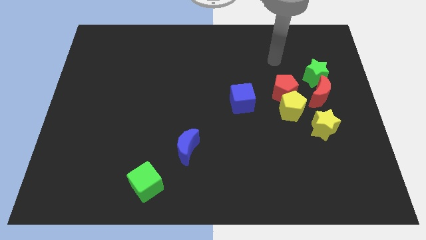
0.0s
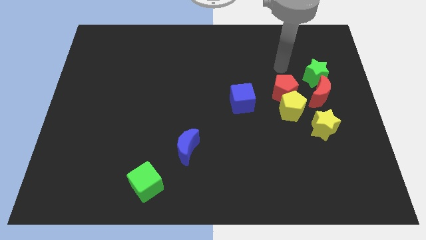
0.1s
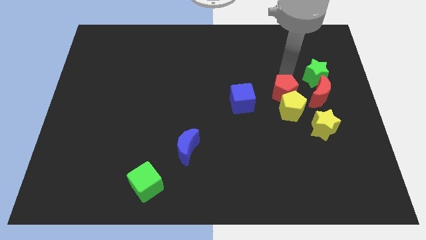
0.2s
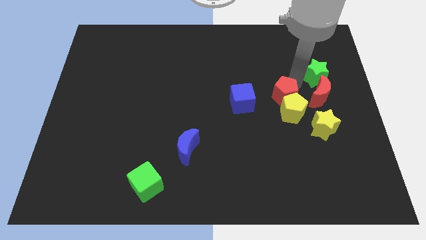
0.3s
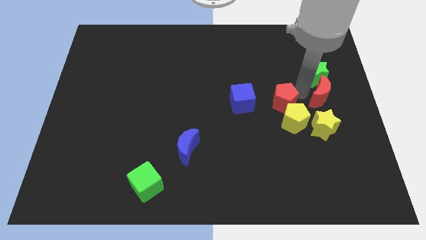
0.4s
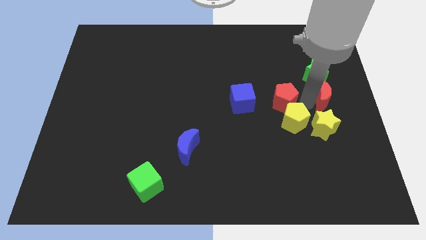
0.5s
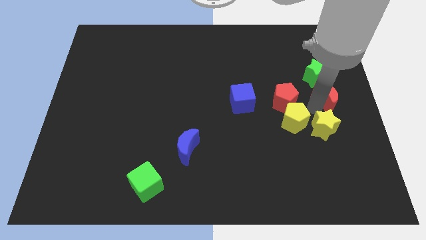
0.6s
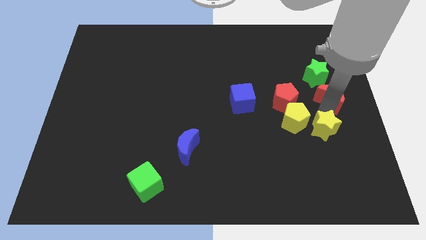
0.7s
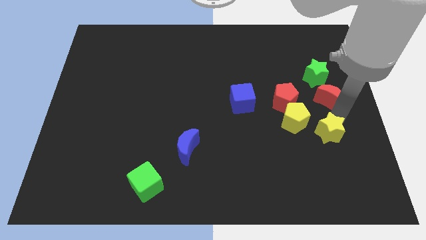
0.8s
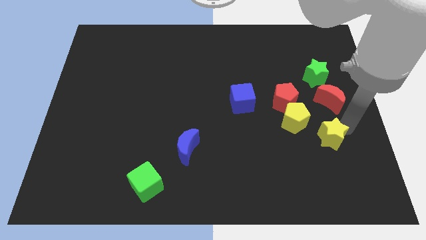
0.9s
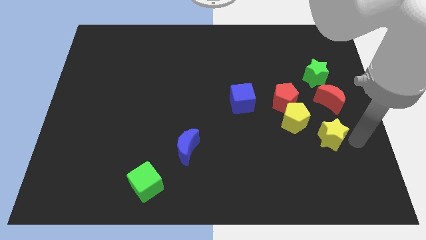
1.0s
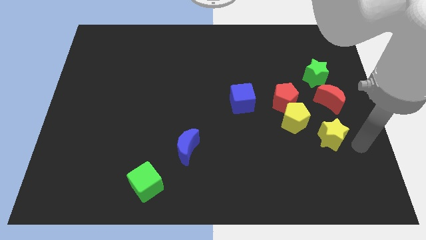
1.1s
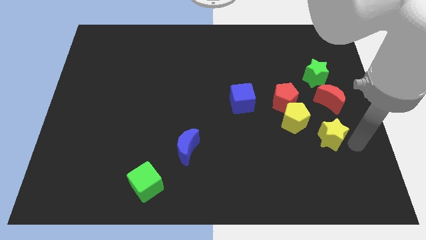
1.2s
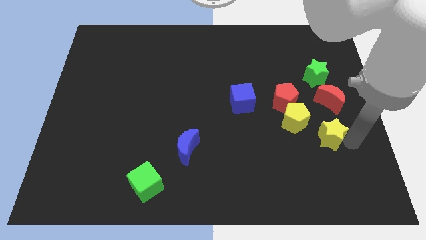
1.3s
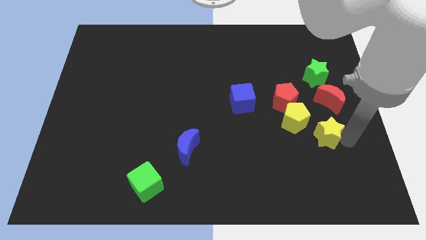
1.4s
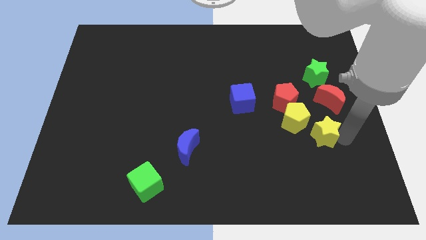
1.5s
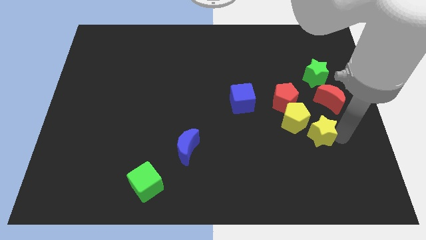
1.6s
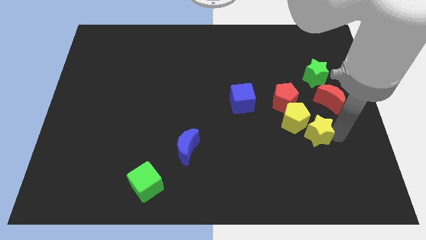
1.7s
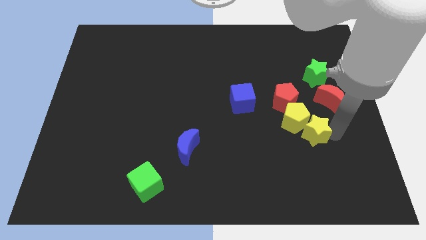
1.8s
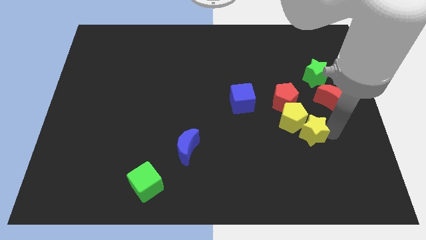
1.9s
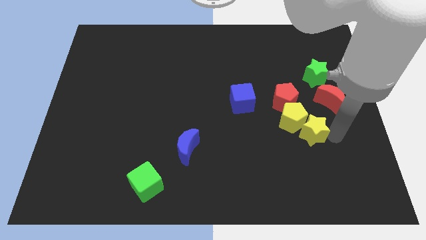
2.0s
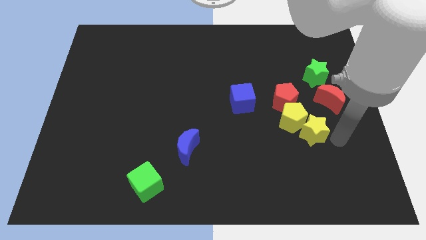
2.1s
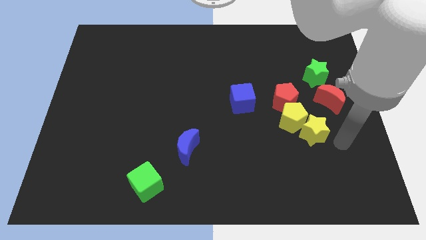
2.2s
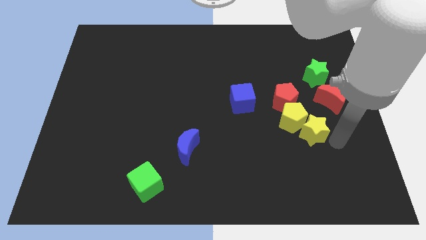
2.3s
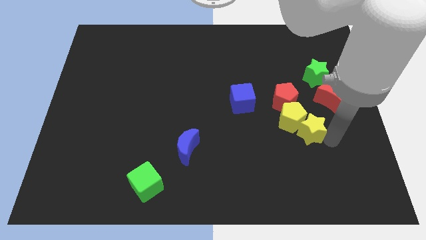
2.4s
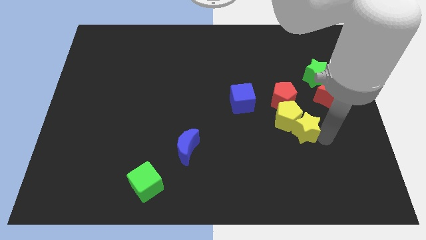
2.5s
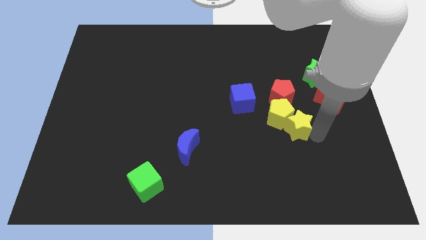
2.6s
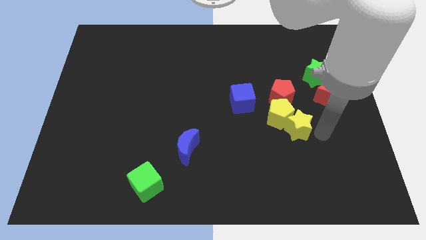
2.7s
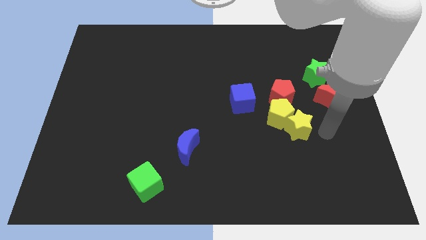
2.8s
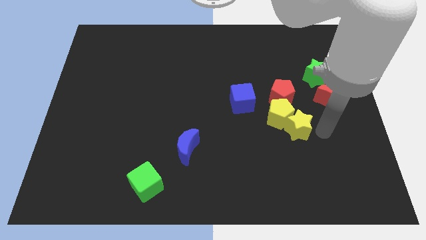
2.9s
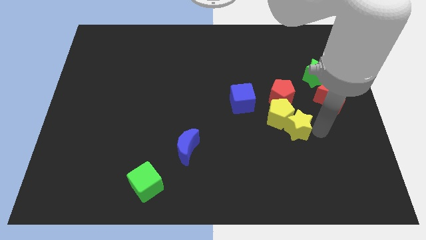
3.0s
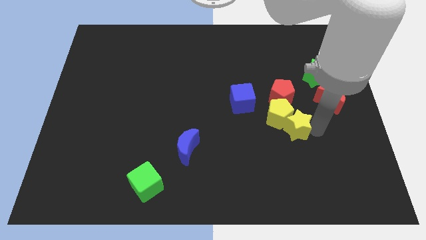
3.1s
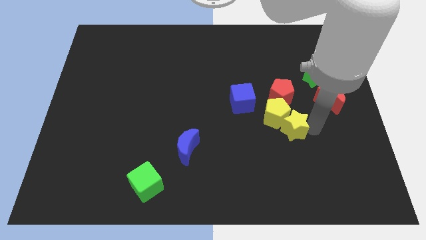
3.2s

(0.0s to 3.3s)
push the yellow star left a bit

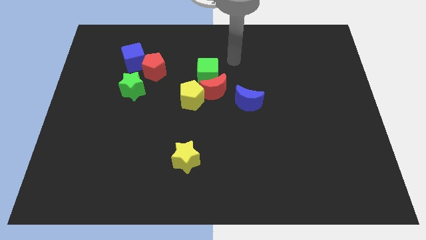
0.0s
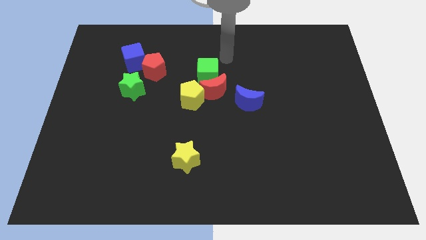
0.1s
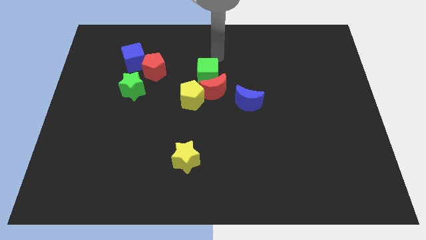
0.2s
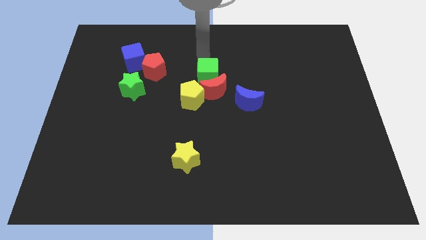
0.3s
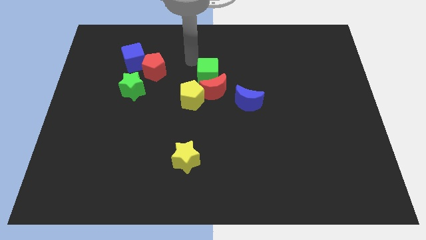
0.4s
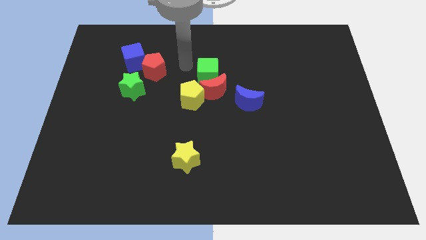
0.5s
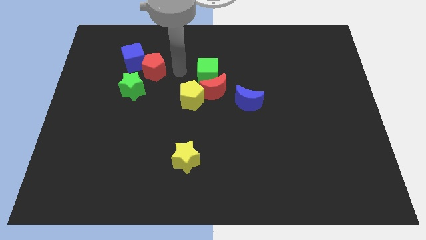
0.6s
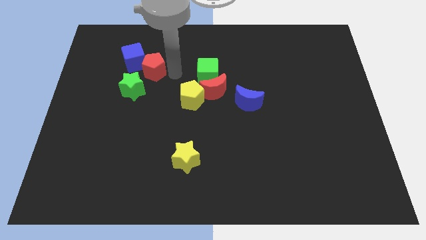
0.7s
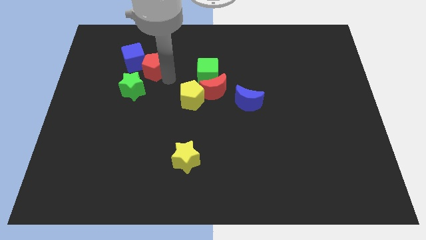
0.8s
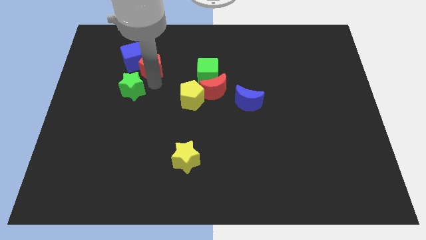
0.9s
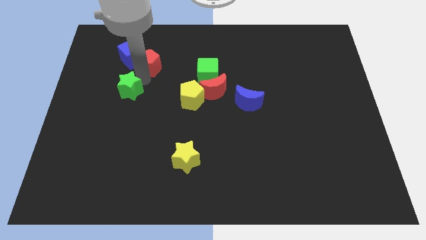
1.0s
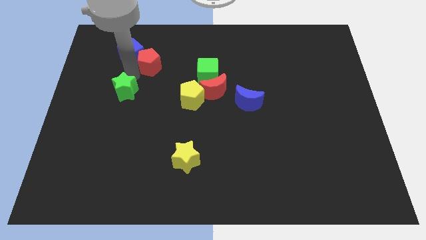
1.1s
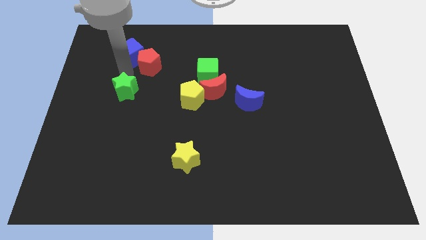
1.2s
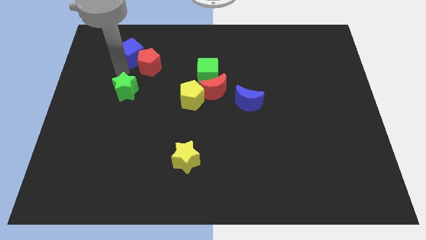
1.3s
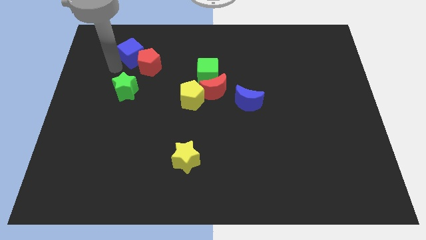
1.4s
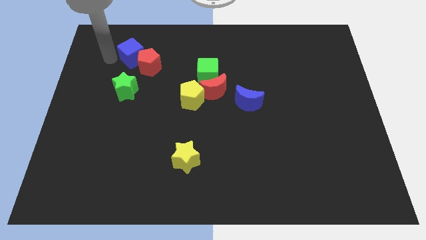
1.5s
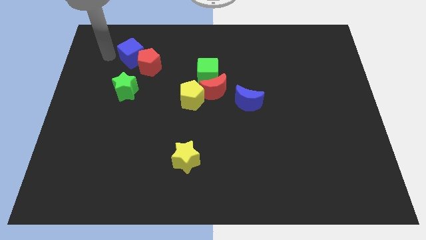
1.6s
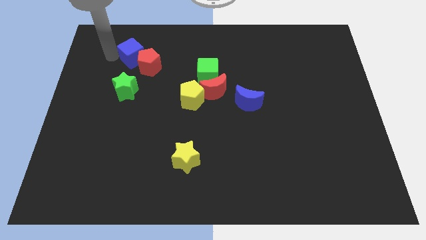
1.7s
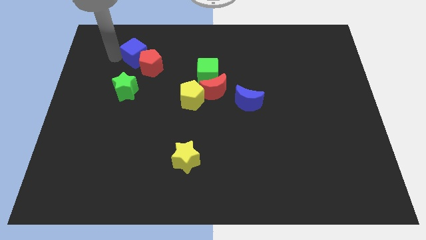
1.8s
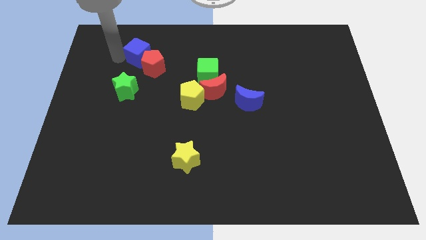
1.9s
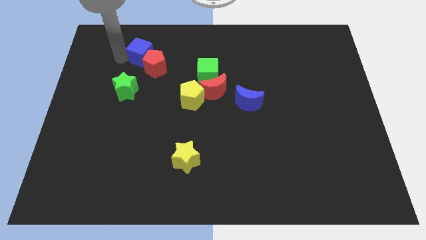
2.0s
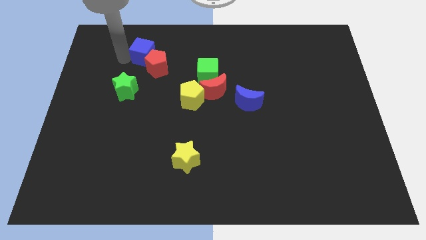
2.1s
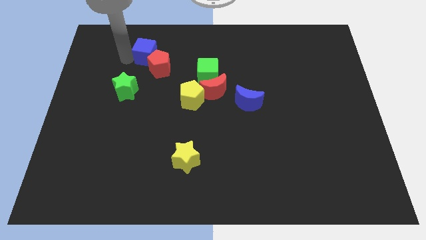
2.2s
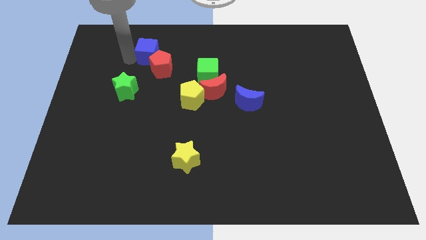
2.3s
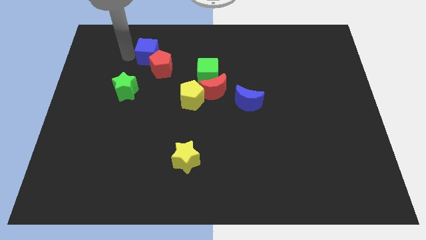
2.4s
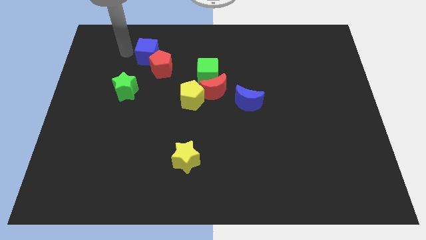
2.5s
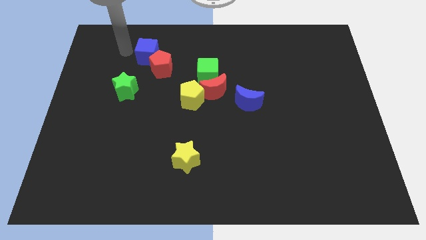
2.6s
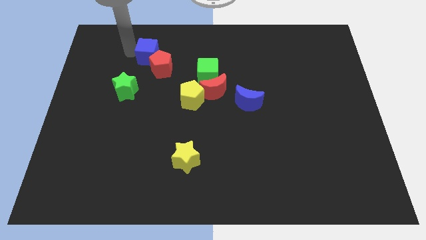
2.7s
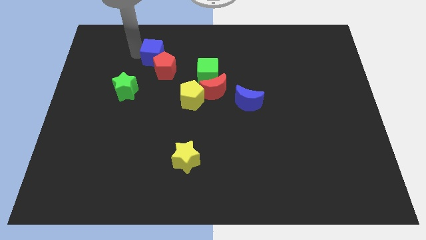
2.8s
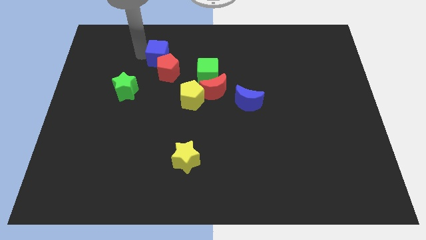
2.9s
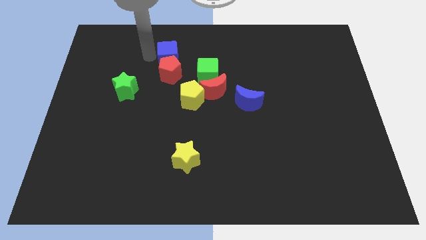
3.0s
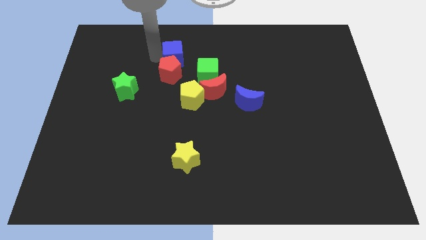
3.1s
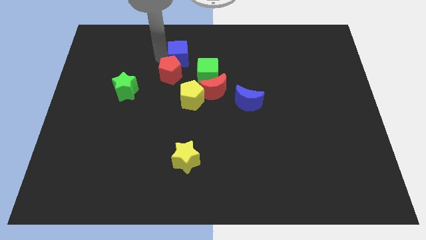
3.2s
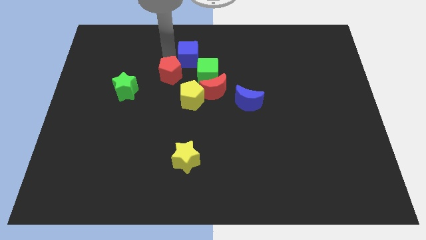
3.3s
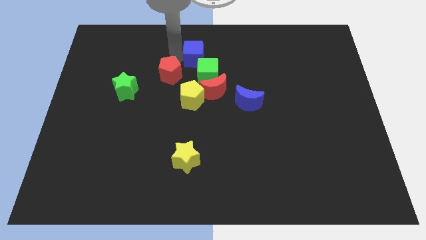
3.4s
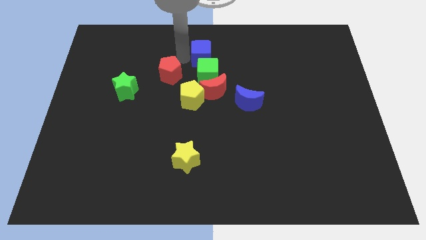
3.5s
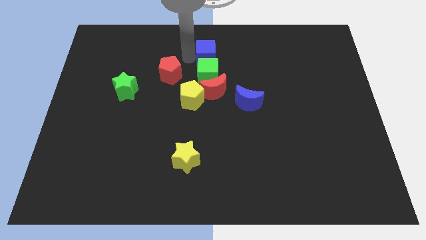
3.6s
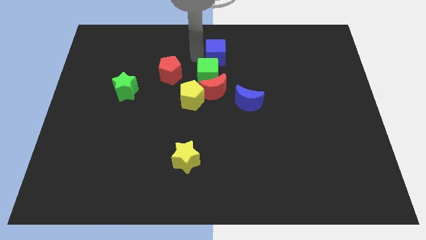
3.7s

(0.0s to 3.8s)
push the blue cube right

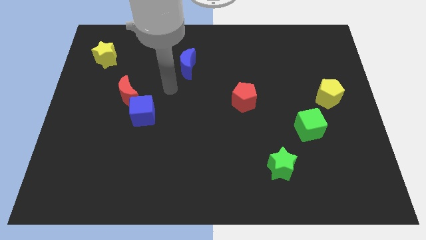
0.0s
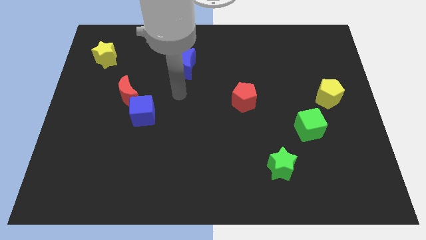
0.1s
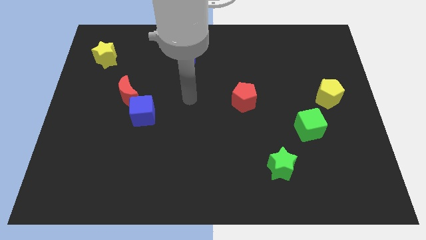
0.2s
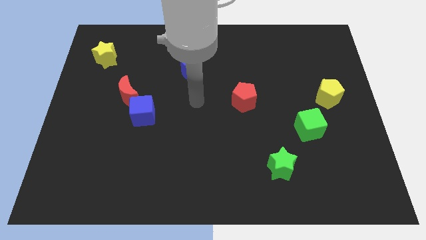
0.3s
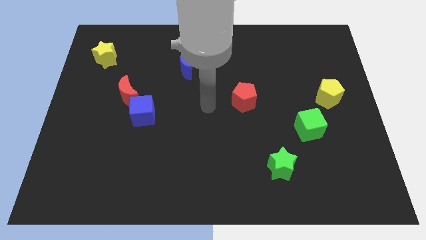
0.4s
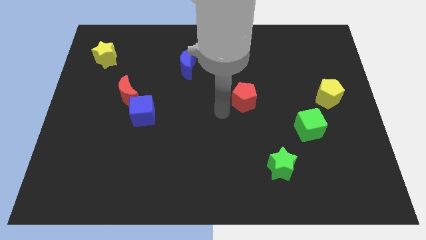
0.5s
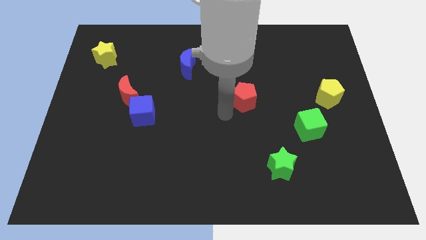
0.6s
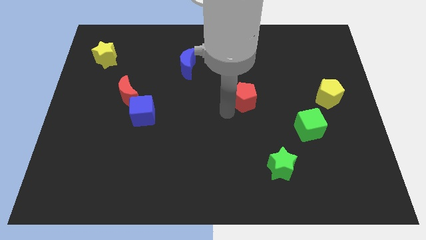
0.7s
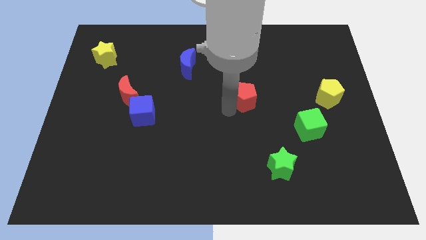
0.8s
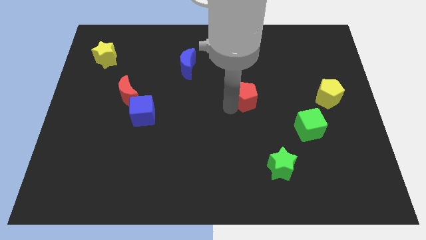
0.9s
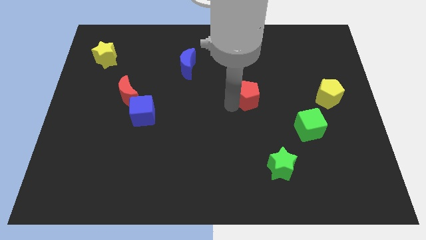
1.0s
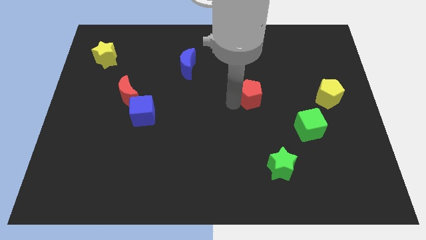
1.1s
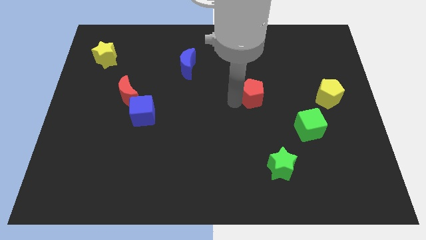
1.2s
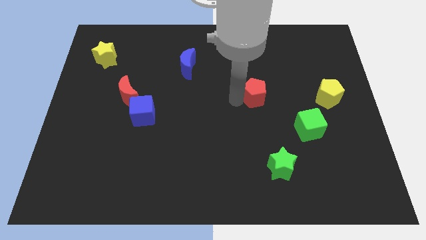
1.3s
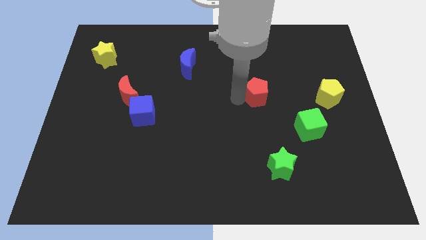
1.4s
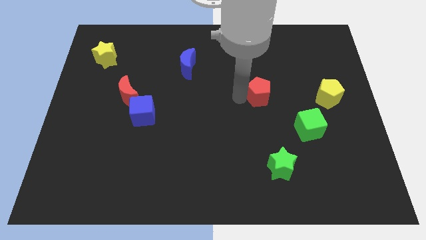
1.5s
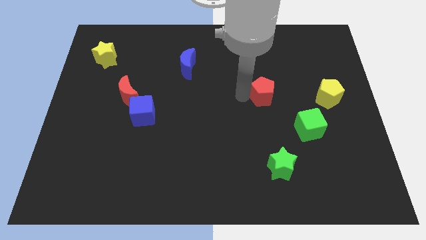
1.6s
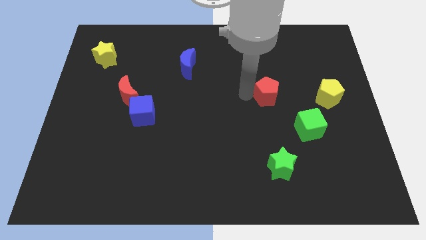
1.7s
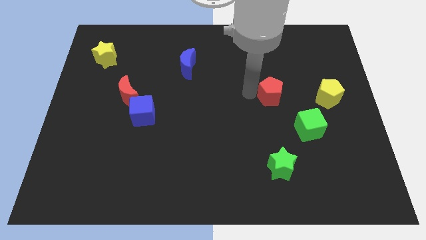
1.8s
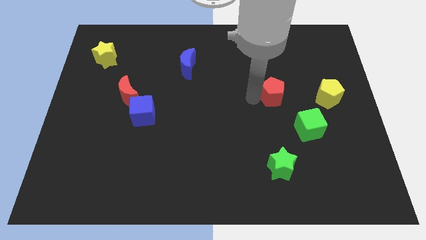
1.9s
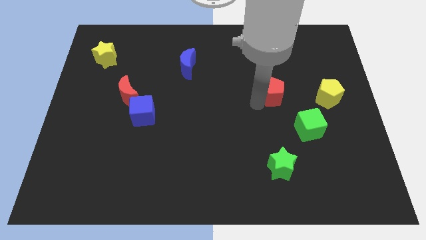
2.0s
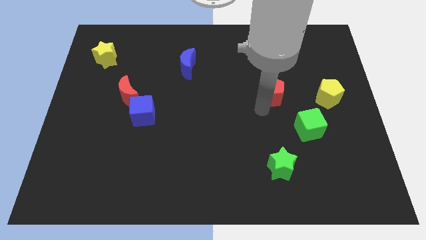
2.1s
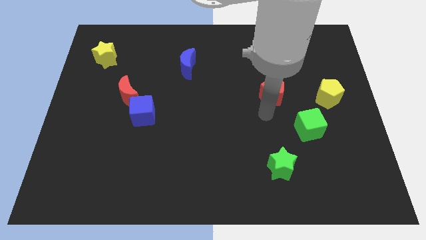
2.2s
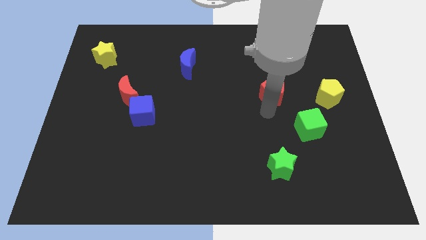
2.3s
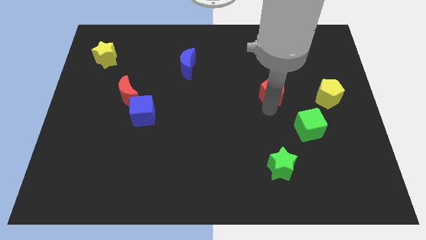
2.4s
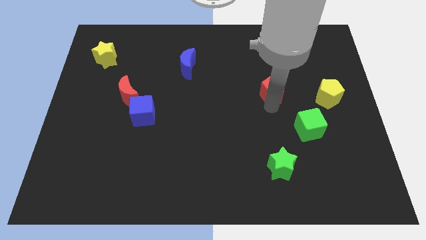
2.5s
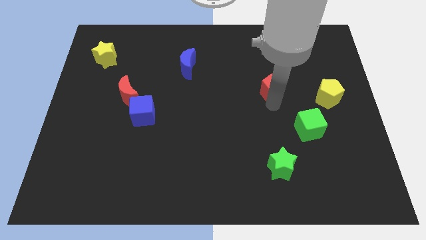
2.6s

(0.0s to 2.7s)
slightly push the red pentagon upwards and right diagonally
